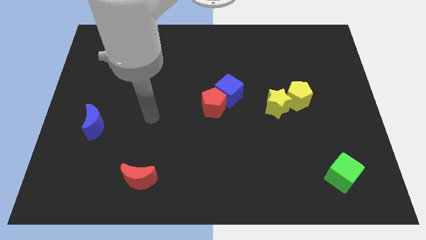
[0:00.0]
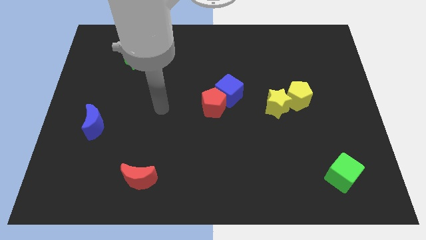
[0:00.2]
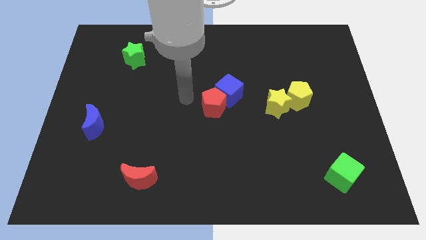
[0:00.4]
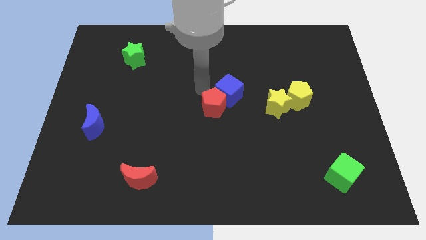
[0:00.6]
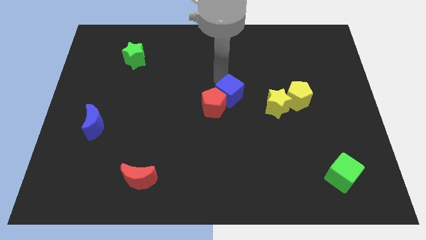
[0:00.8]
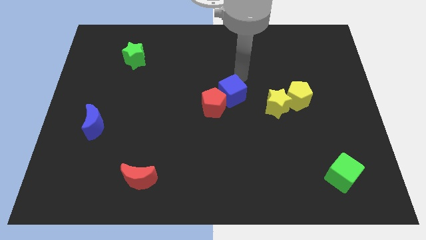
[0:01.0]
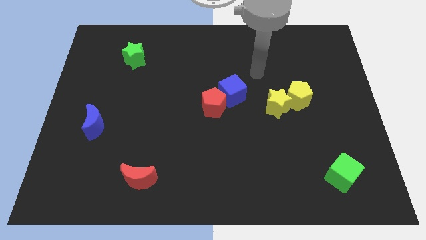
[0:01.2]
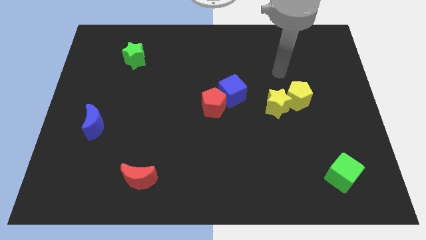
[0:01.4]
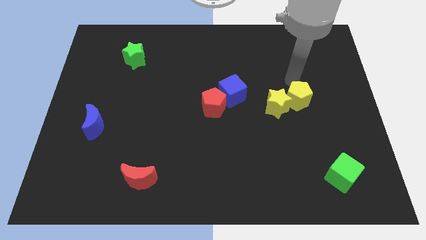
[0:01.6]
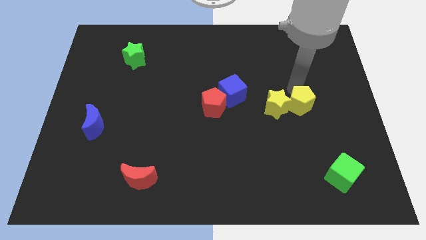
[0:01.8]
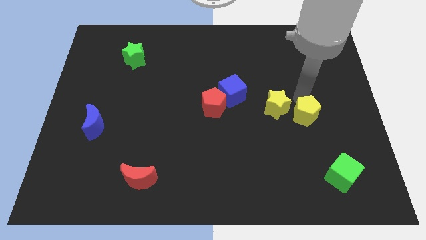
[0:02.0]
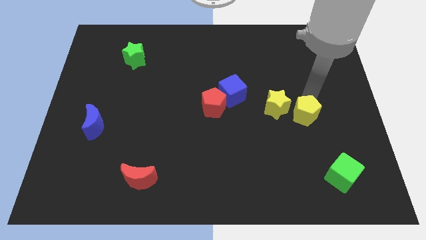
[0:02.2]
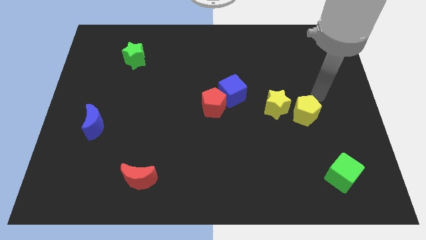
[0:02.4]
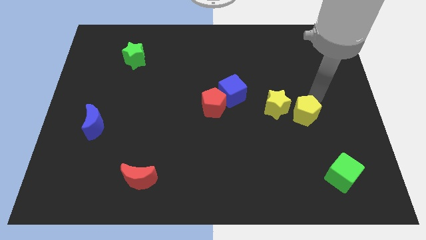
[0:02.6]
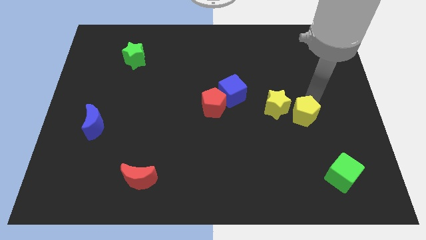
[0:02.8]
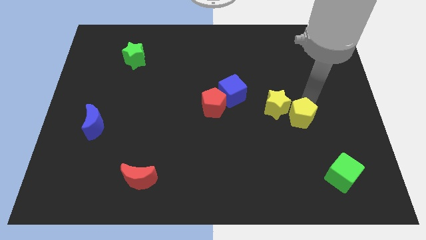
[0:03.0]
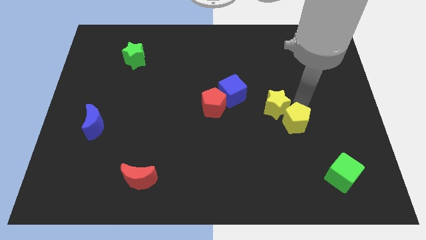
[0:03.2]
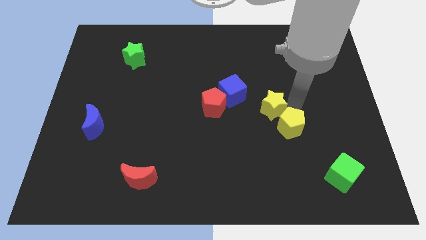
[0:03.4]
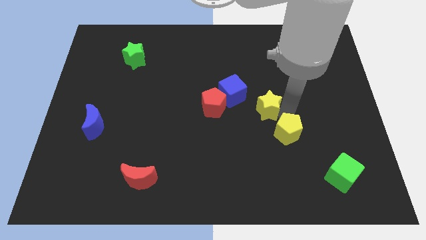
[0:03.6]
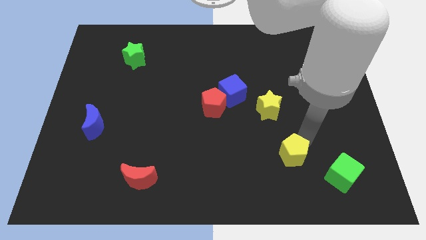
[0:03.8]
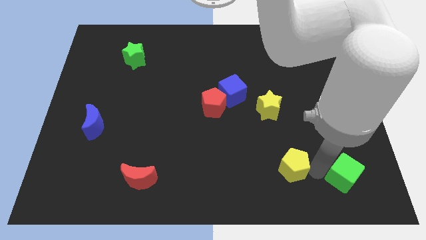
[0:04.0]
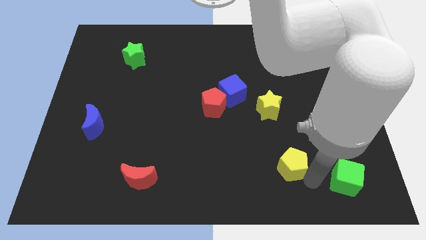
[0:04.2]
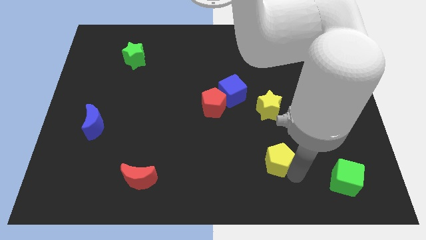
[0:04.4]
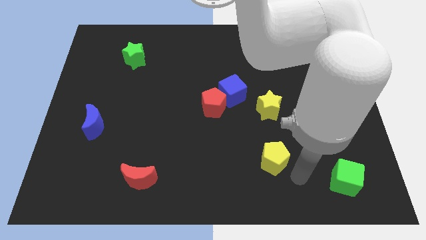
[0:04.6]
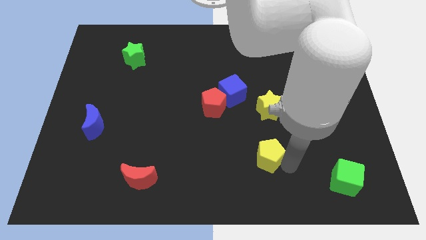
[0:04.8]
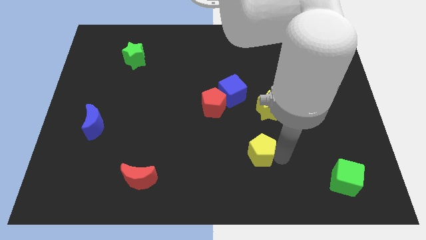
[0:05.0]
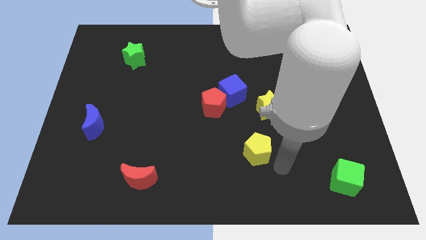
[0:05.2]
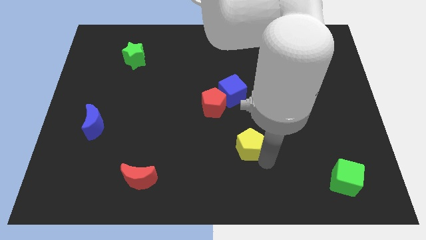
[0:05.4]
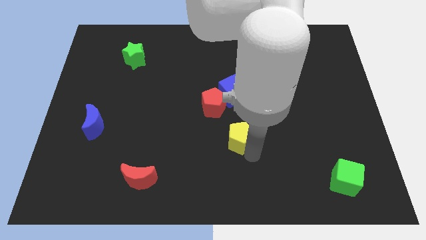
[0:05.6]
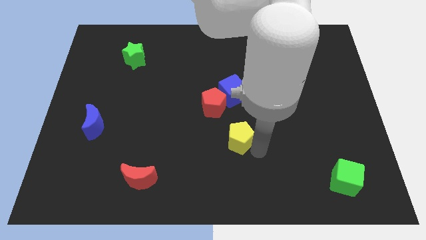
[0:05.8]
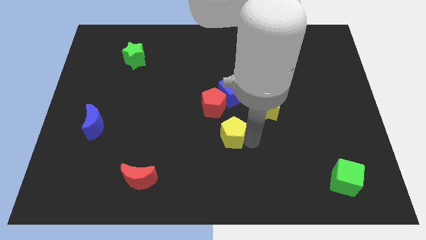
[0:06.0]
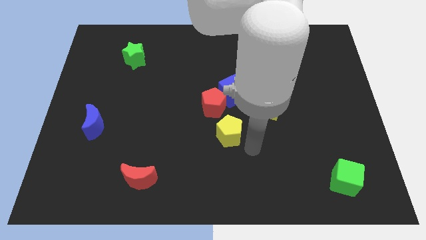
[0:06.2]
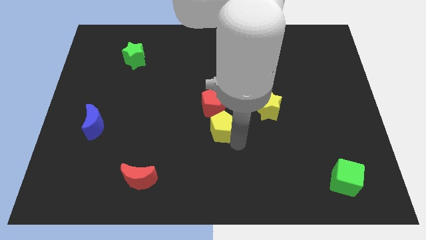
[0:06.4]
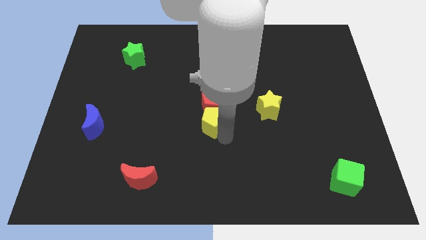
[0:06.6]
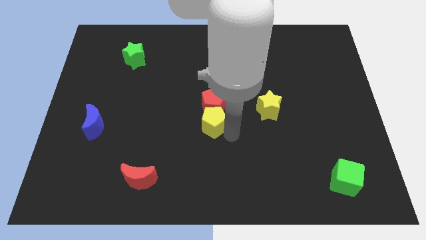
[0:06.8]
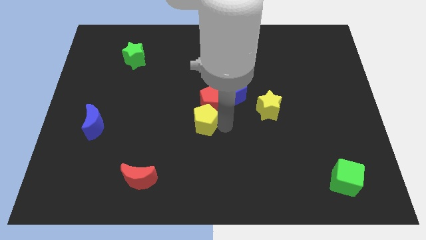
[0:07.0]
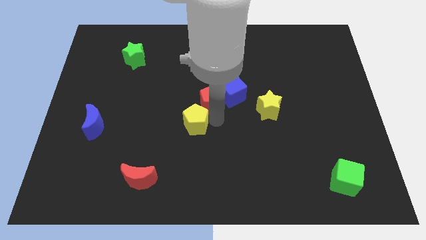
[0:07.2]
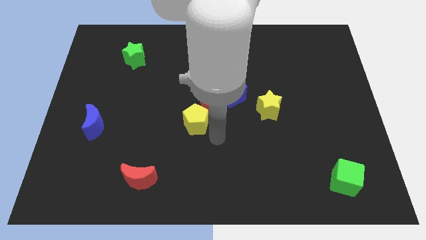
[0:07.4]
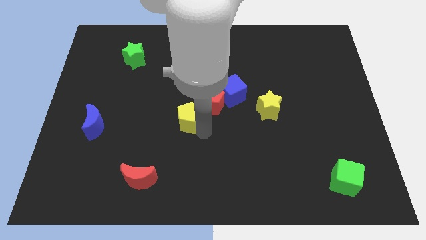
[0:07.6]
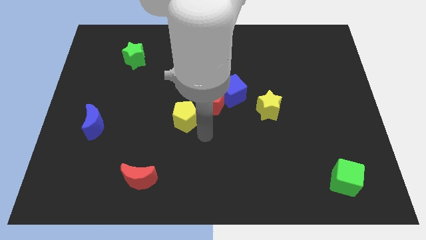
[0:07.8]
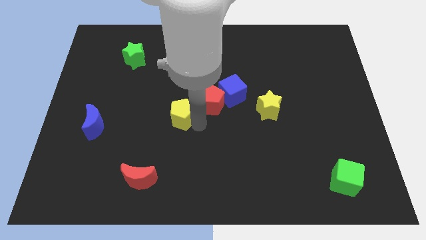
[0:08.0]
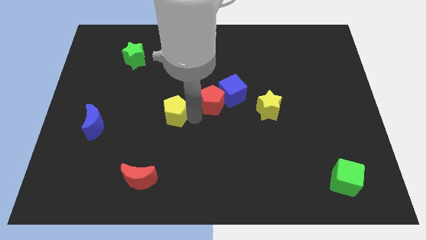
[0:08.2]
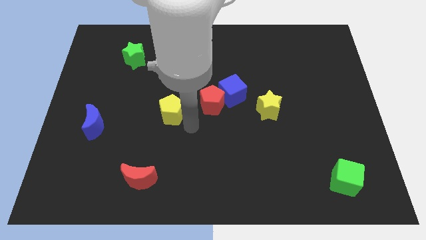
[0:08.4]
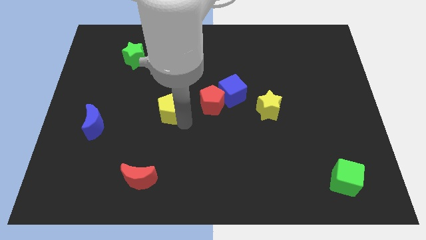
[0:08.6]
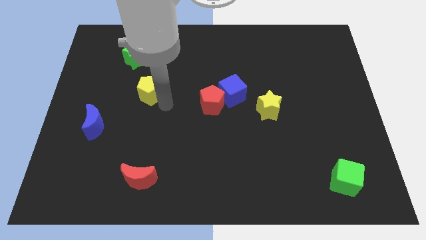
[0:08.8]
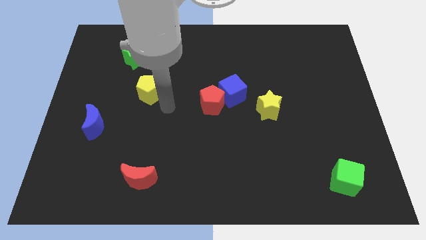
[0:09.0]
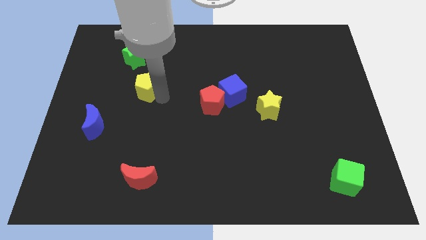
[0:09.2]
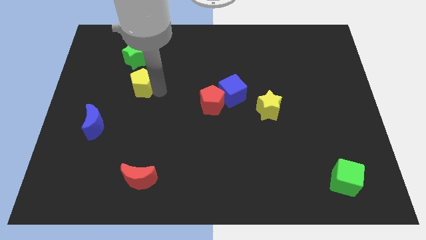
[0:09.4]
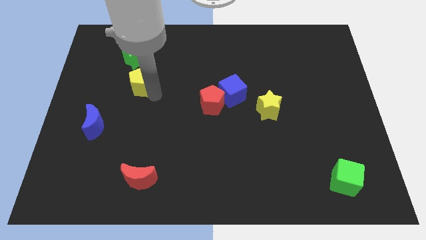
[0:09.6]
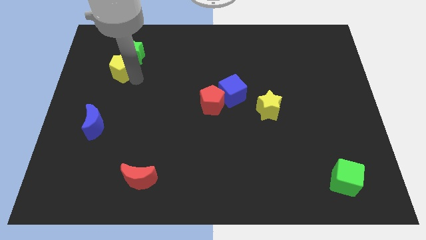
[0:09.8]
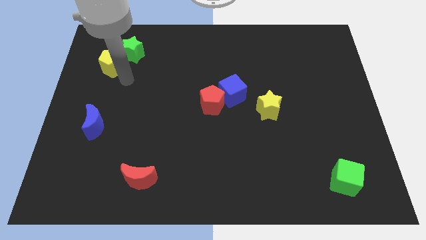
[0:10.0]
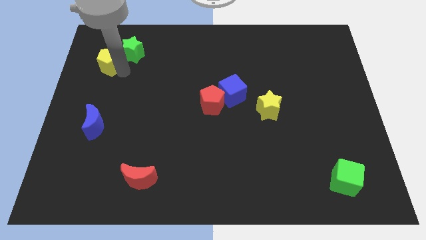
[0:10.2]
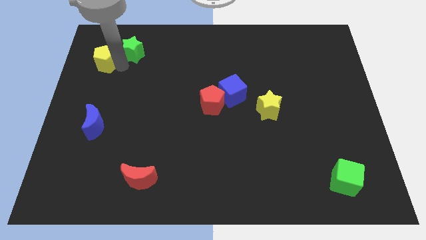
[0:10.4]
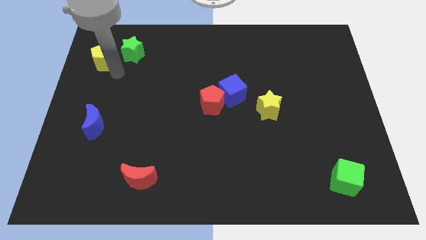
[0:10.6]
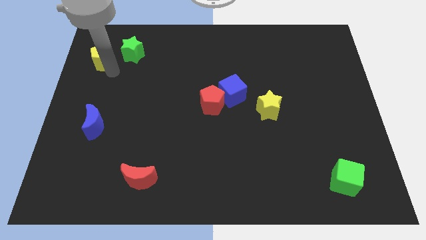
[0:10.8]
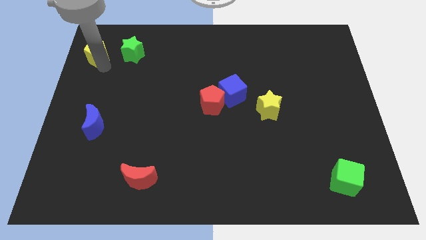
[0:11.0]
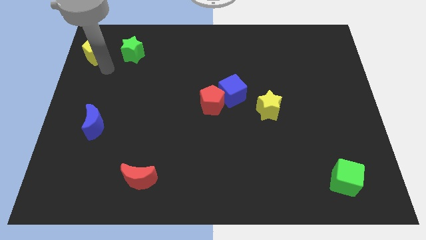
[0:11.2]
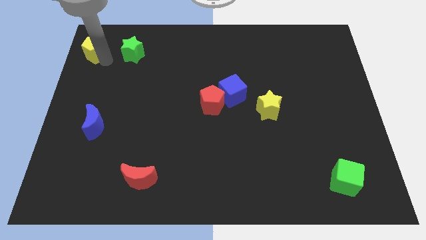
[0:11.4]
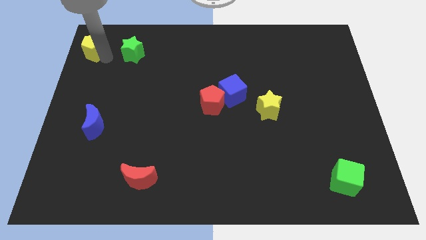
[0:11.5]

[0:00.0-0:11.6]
put the yellow pentagon to the top left corner

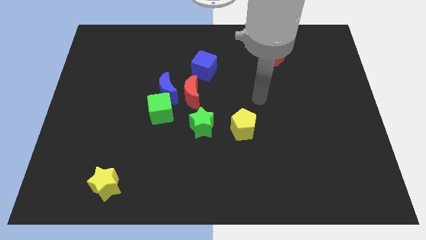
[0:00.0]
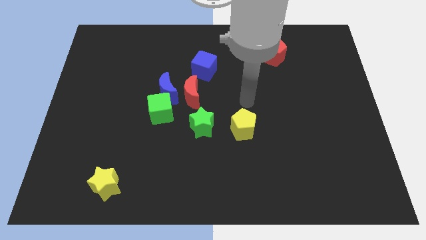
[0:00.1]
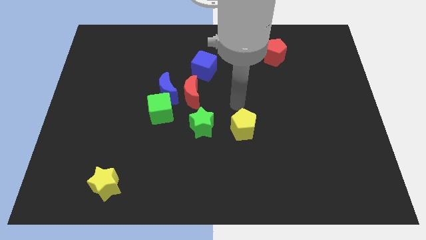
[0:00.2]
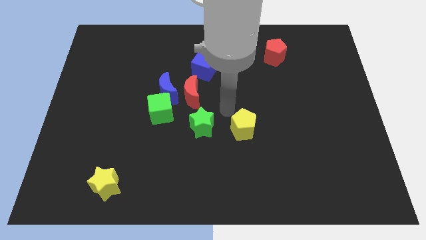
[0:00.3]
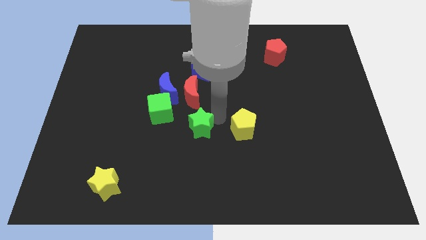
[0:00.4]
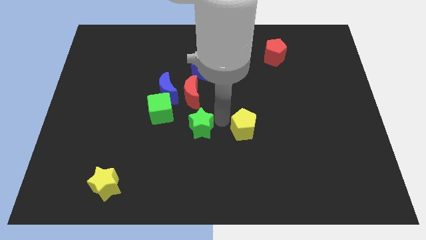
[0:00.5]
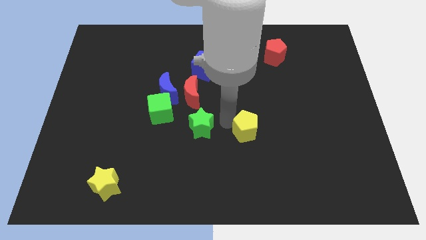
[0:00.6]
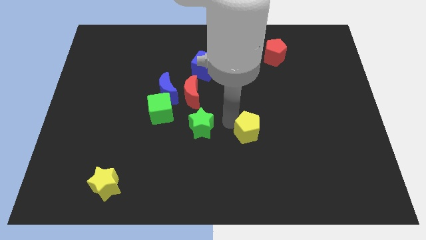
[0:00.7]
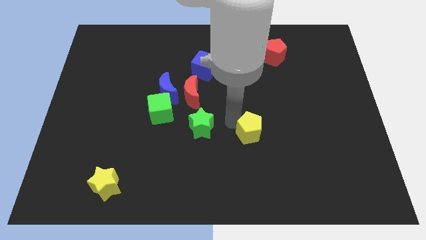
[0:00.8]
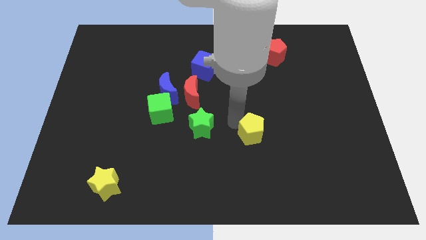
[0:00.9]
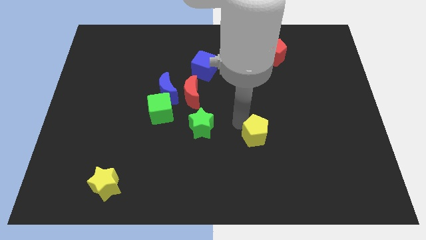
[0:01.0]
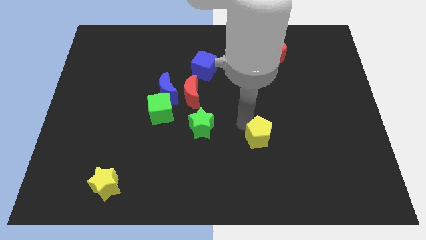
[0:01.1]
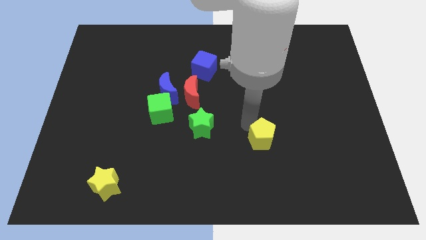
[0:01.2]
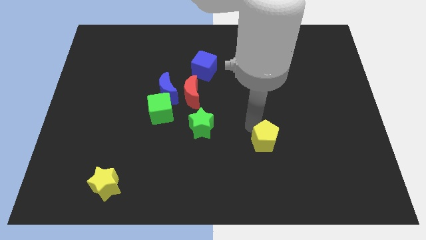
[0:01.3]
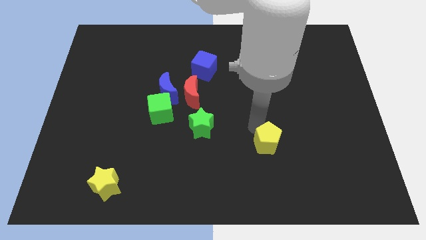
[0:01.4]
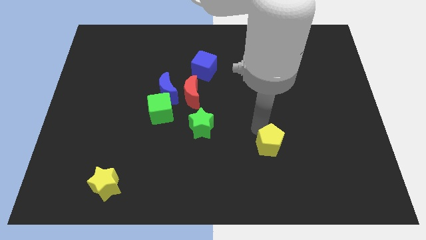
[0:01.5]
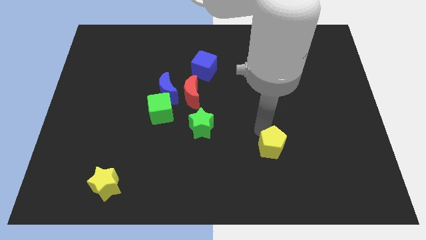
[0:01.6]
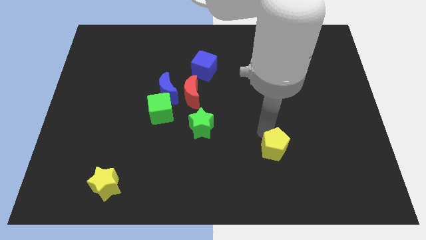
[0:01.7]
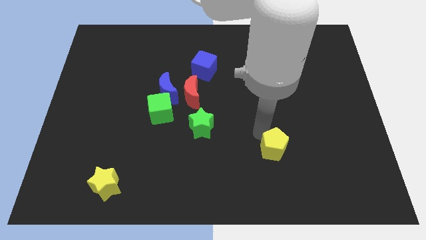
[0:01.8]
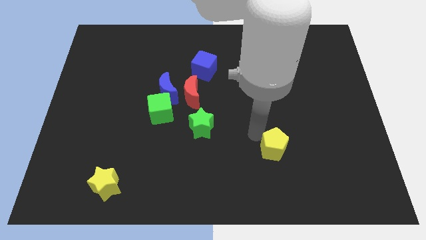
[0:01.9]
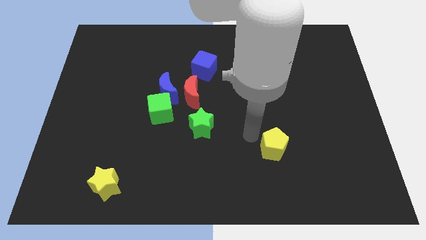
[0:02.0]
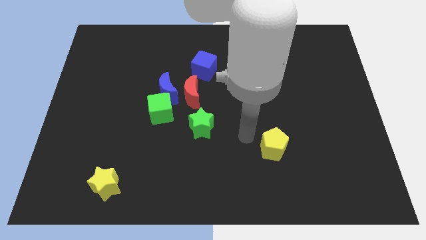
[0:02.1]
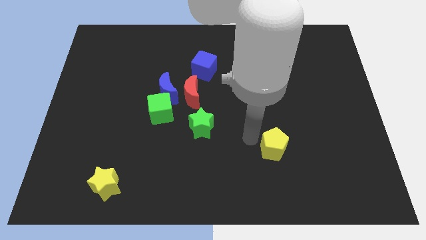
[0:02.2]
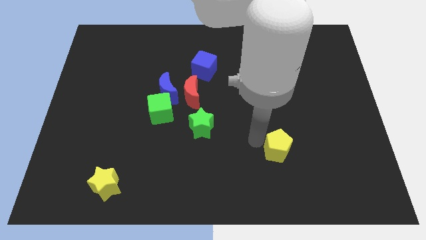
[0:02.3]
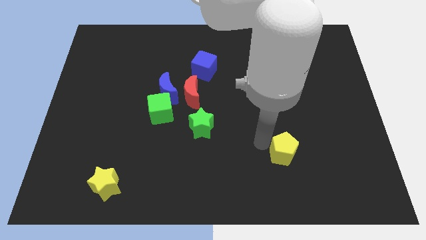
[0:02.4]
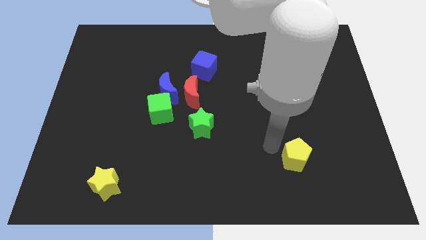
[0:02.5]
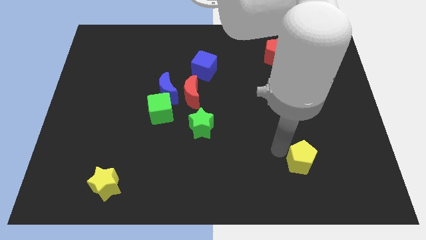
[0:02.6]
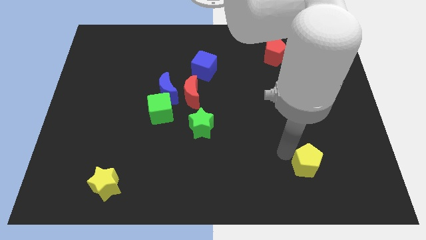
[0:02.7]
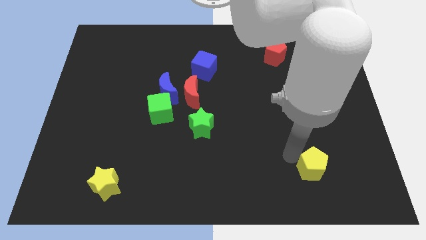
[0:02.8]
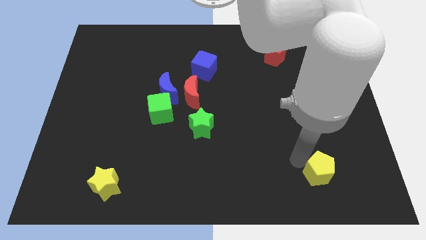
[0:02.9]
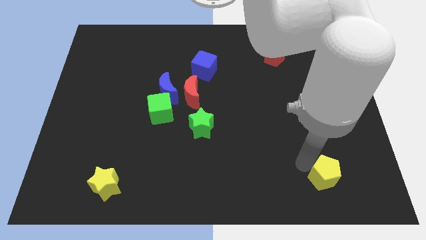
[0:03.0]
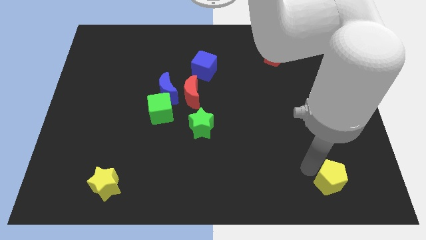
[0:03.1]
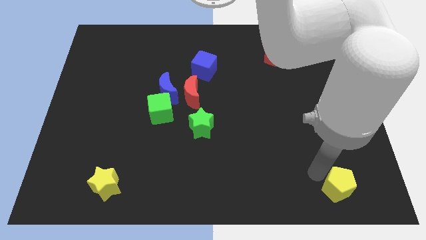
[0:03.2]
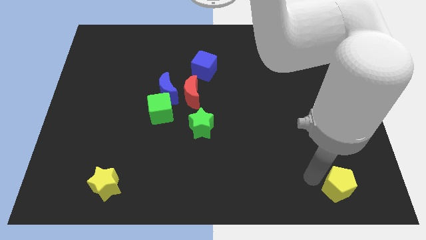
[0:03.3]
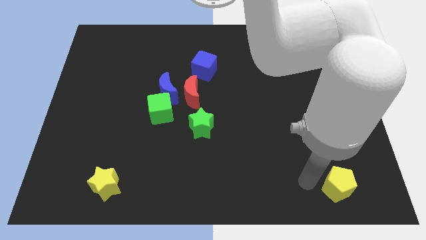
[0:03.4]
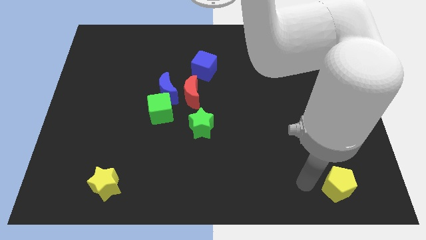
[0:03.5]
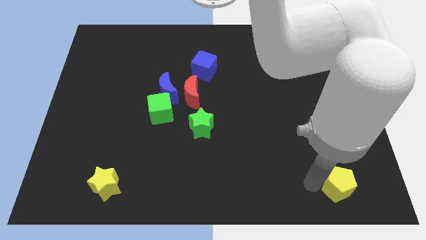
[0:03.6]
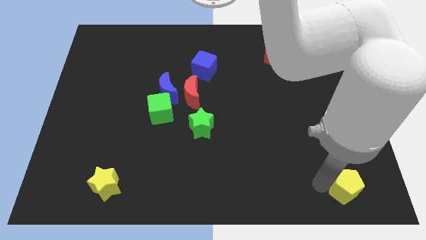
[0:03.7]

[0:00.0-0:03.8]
put the yellow pentagon to the bottom right of the board
